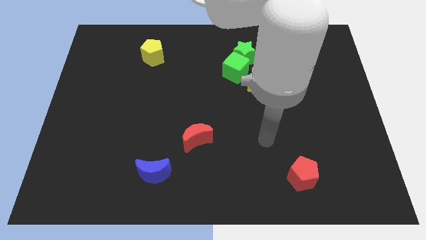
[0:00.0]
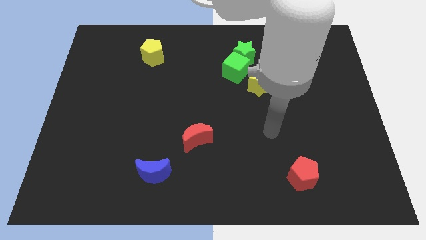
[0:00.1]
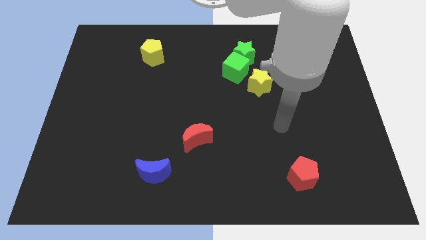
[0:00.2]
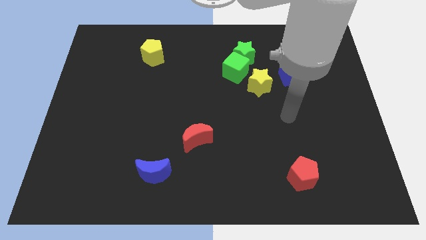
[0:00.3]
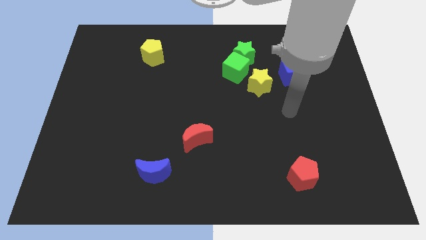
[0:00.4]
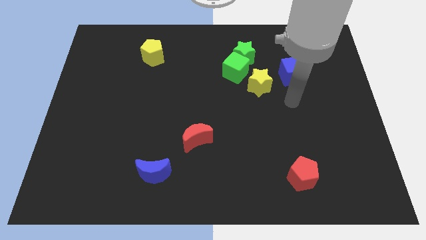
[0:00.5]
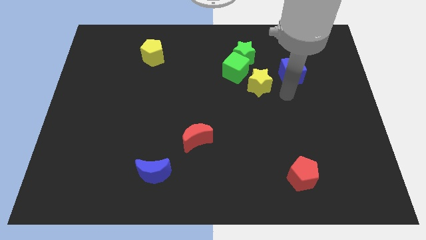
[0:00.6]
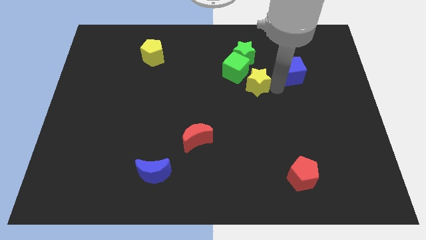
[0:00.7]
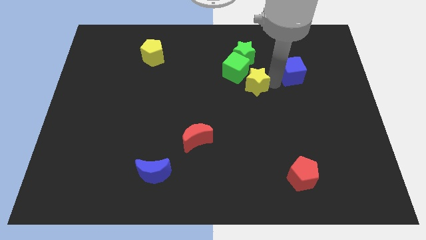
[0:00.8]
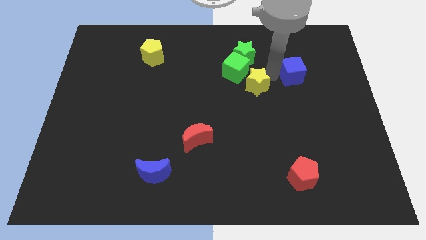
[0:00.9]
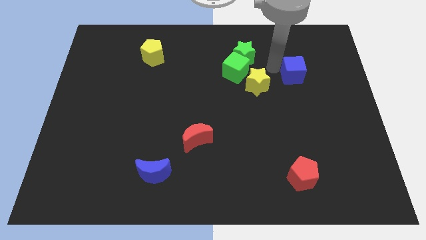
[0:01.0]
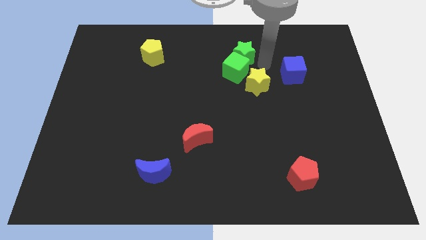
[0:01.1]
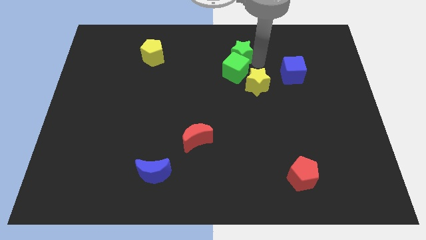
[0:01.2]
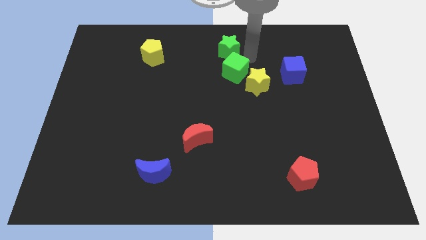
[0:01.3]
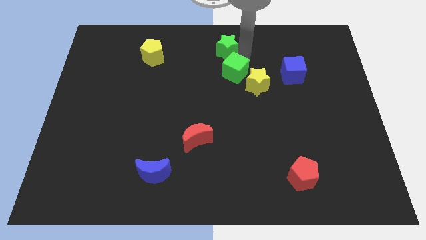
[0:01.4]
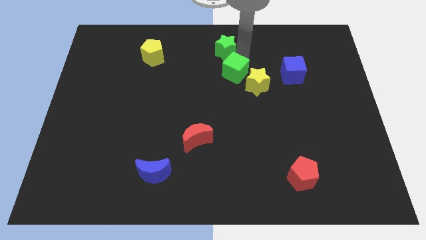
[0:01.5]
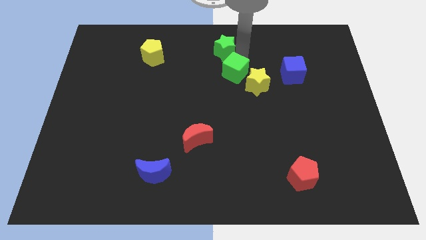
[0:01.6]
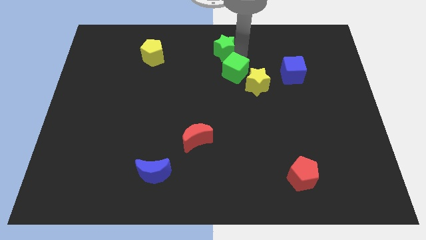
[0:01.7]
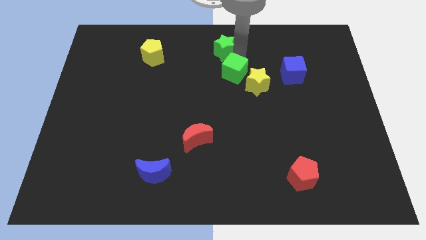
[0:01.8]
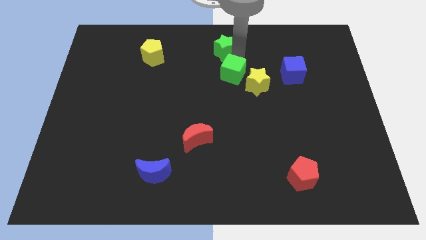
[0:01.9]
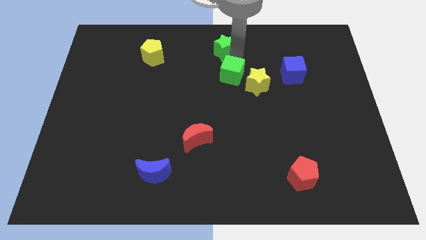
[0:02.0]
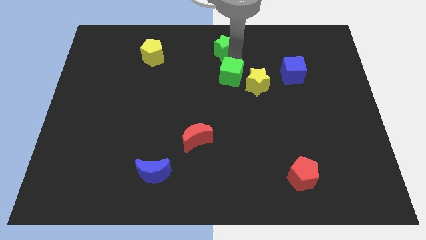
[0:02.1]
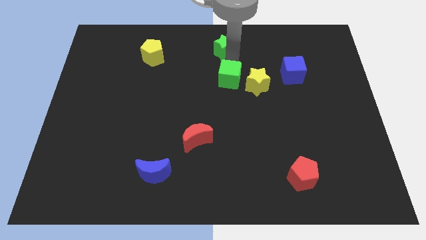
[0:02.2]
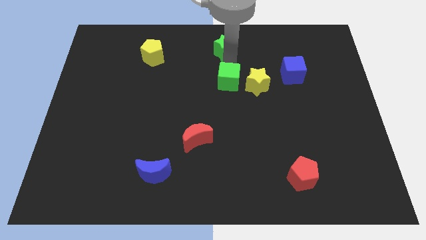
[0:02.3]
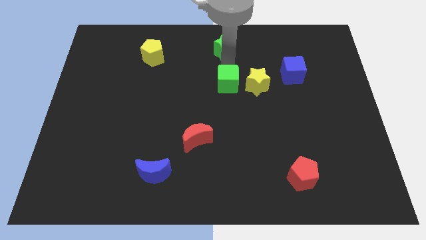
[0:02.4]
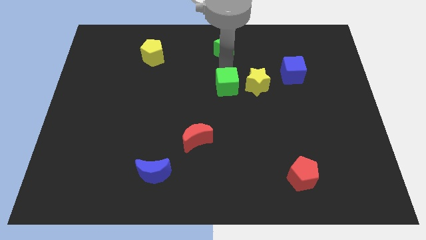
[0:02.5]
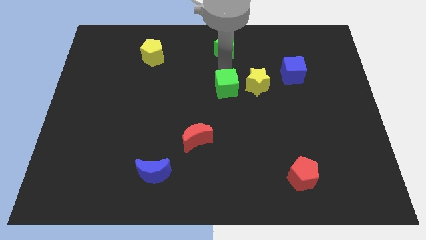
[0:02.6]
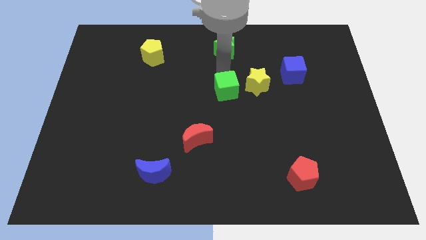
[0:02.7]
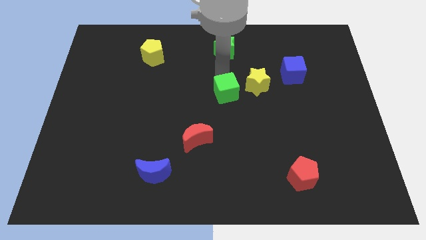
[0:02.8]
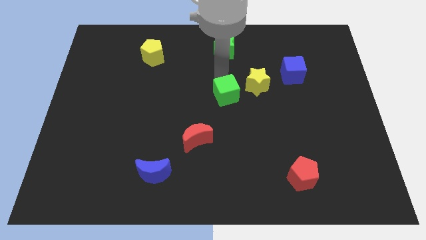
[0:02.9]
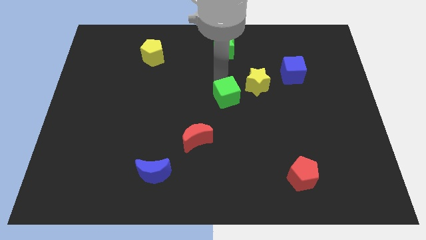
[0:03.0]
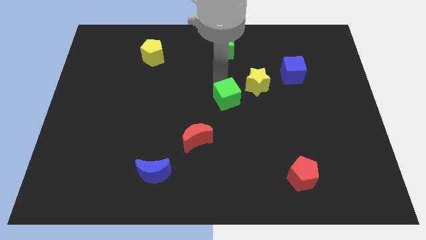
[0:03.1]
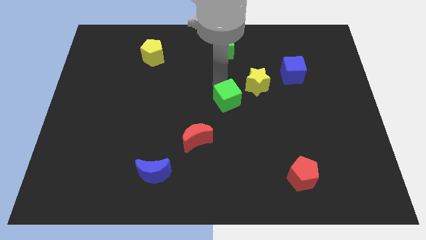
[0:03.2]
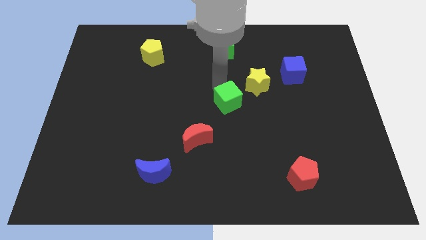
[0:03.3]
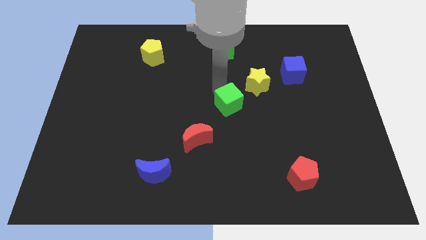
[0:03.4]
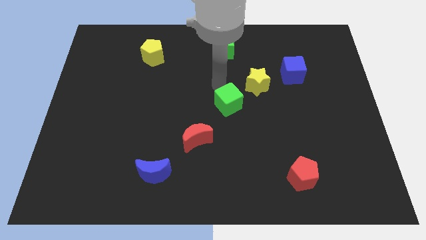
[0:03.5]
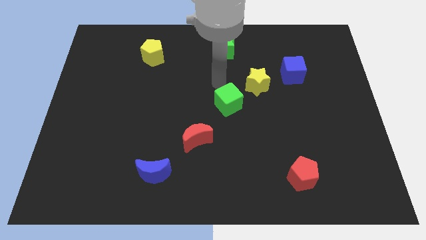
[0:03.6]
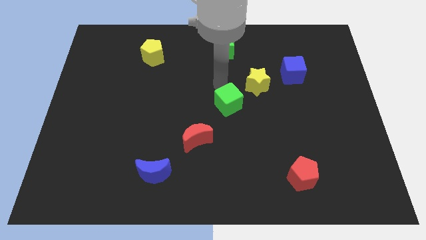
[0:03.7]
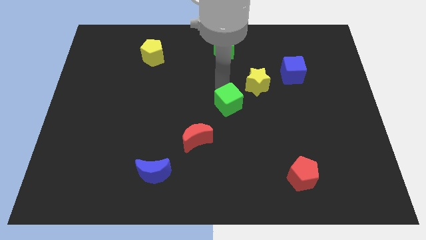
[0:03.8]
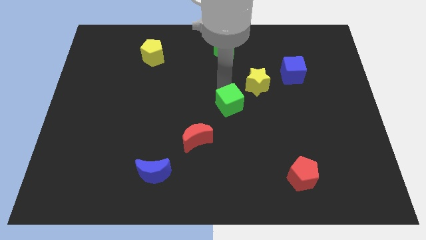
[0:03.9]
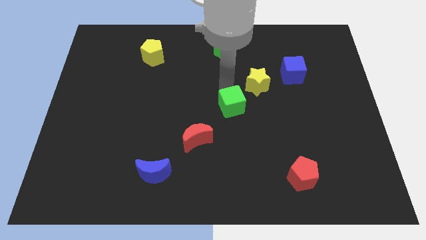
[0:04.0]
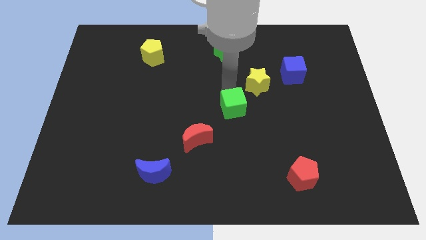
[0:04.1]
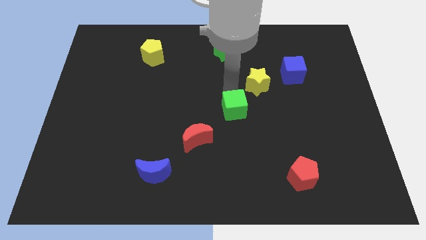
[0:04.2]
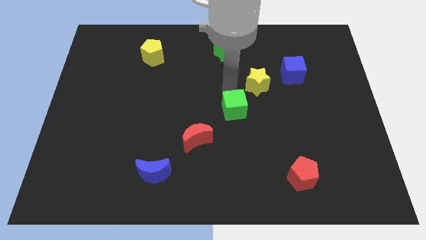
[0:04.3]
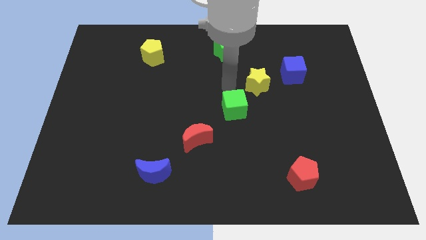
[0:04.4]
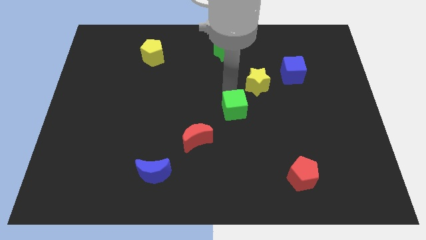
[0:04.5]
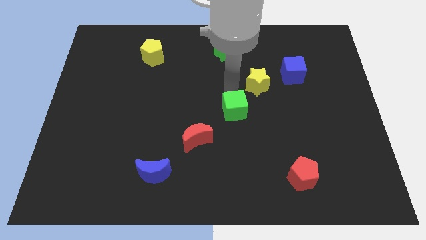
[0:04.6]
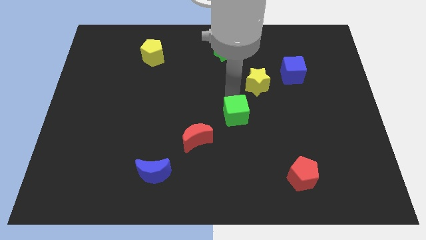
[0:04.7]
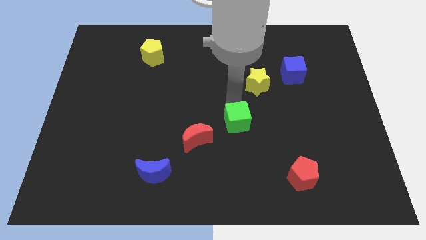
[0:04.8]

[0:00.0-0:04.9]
put the green cube just right of the red moon

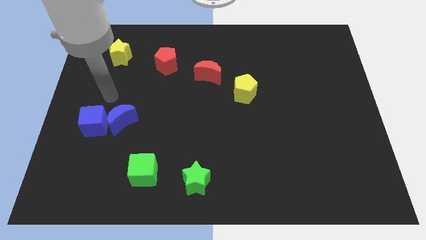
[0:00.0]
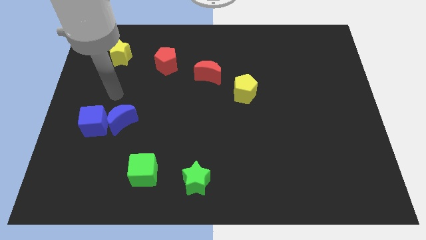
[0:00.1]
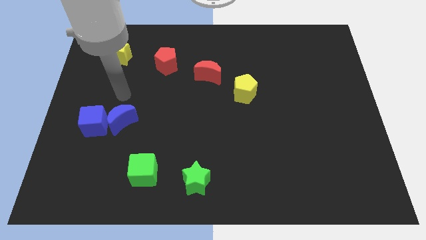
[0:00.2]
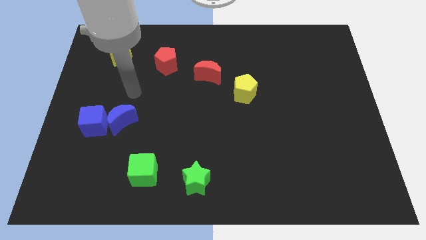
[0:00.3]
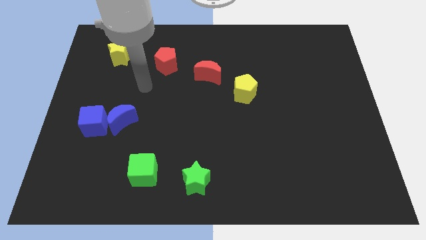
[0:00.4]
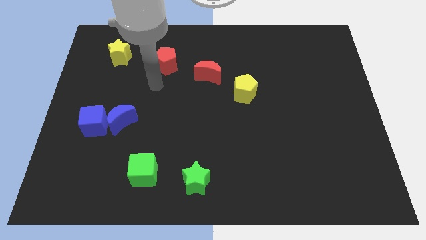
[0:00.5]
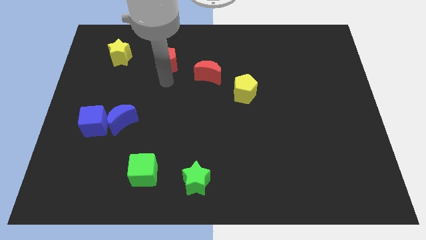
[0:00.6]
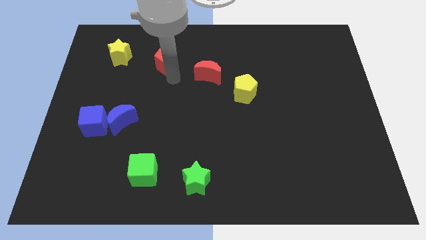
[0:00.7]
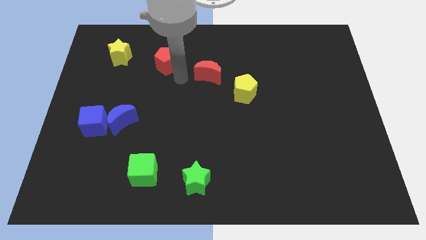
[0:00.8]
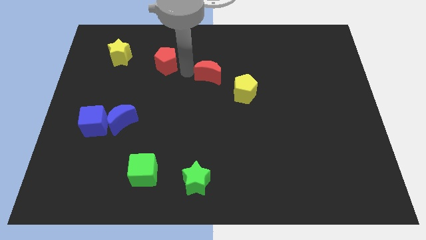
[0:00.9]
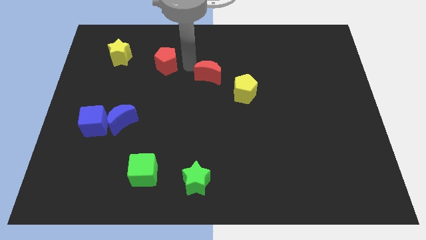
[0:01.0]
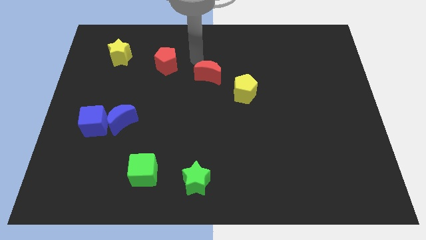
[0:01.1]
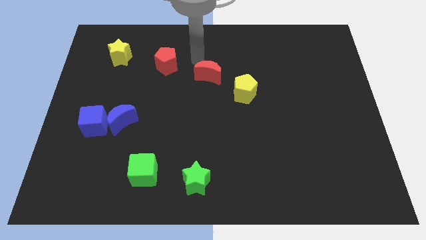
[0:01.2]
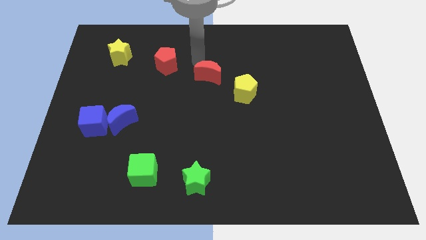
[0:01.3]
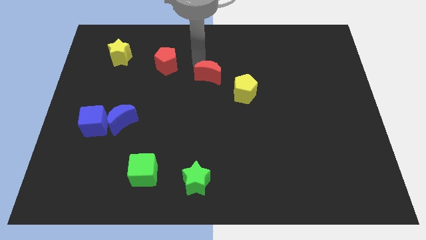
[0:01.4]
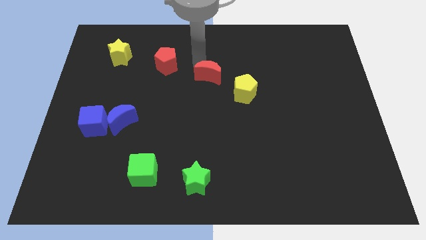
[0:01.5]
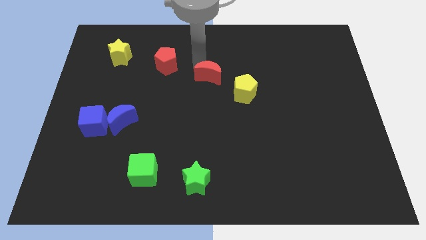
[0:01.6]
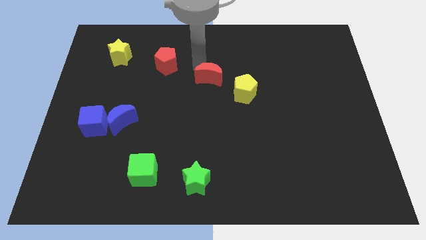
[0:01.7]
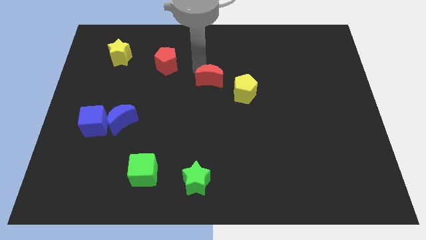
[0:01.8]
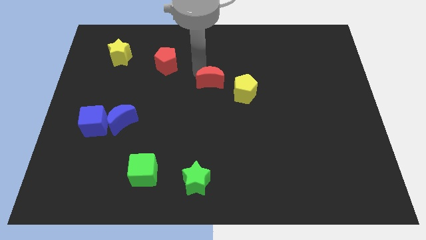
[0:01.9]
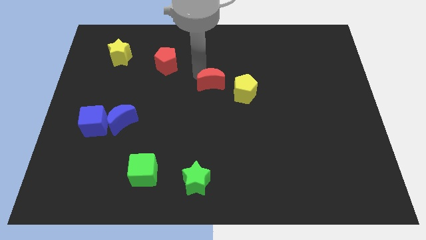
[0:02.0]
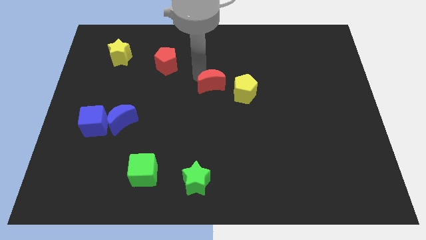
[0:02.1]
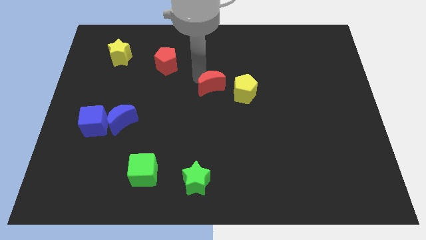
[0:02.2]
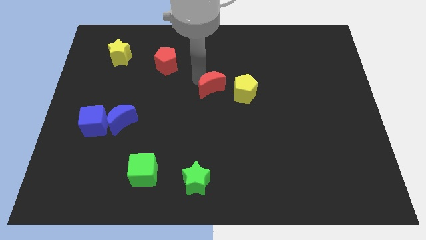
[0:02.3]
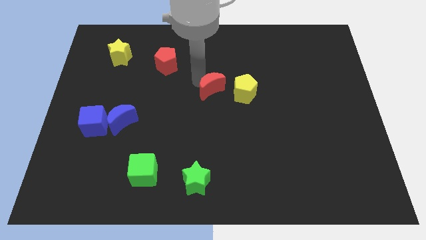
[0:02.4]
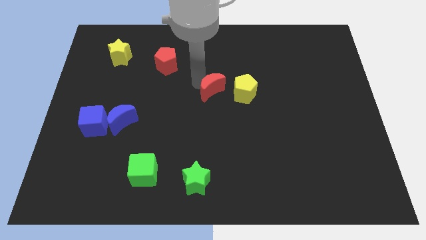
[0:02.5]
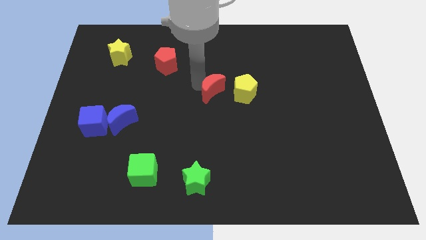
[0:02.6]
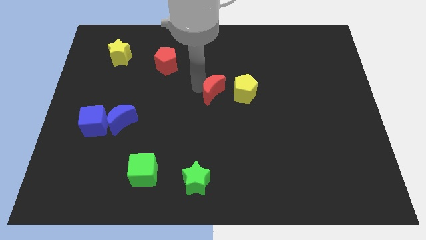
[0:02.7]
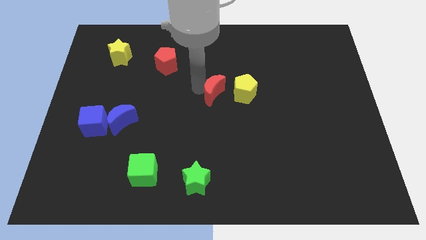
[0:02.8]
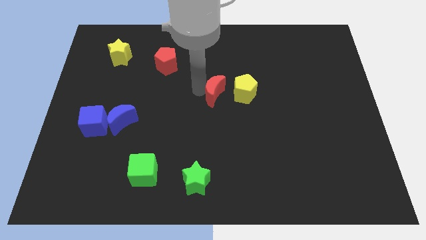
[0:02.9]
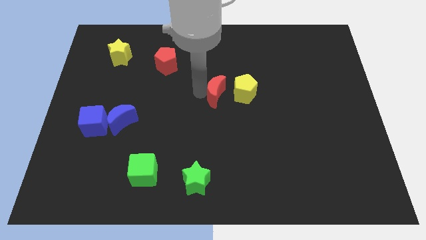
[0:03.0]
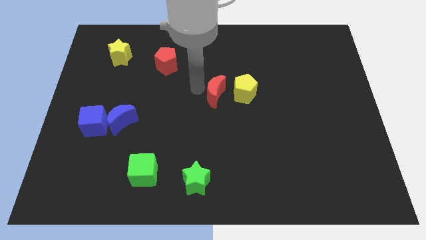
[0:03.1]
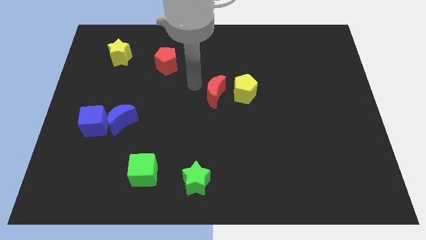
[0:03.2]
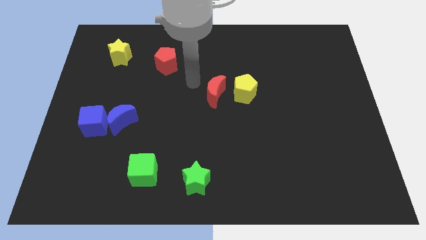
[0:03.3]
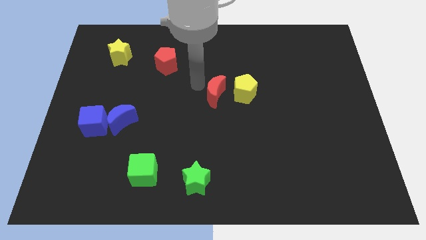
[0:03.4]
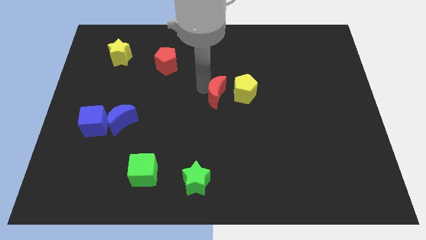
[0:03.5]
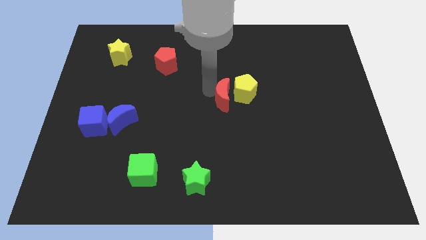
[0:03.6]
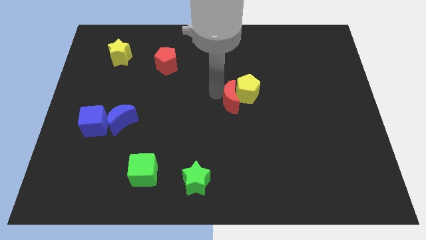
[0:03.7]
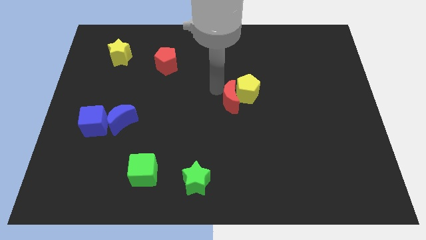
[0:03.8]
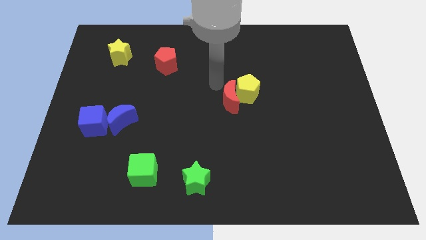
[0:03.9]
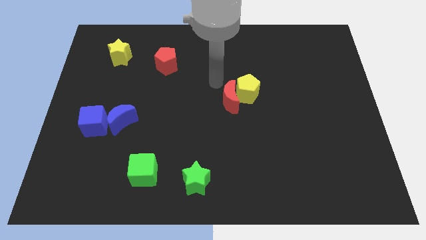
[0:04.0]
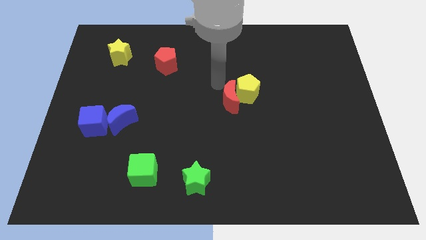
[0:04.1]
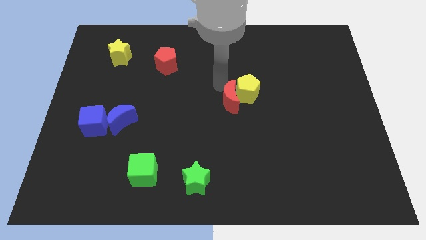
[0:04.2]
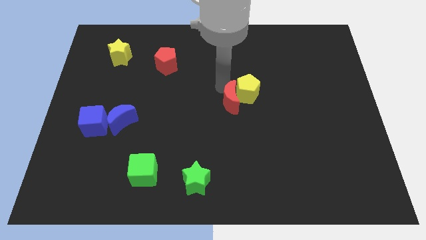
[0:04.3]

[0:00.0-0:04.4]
move the red moon to the bottom of the yellow pentagon
